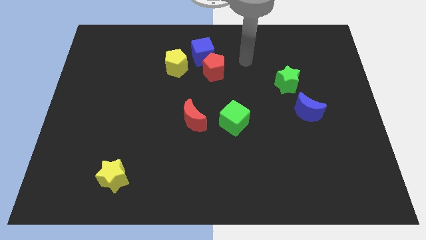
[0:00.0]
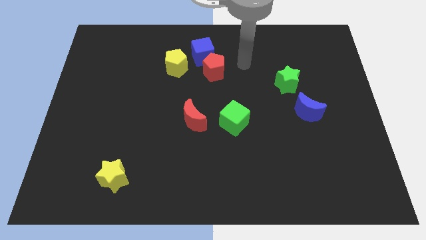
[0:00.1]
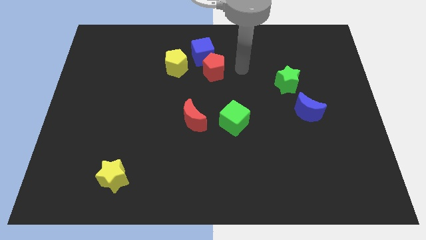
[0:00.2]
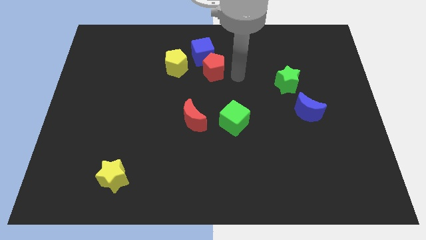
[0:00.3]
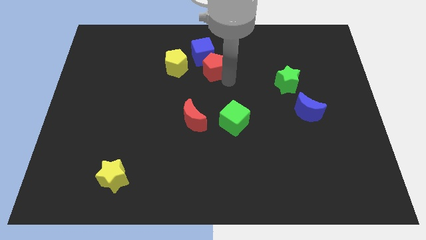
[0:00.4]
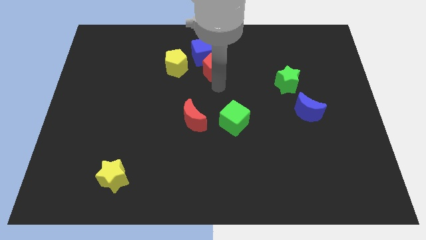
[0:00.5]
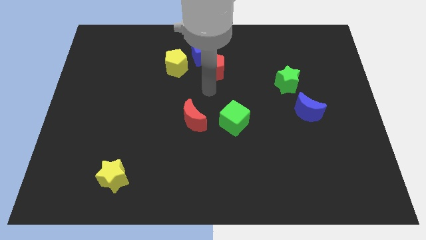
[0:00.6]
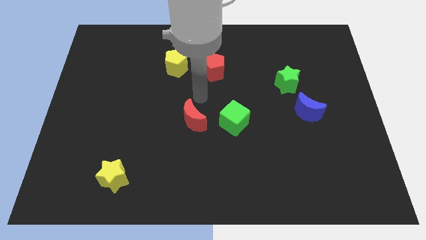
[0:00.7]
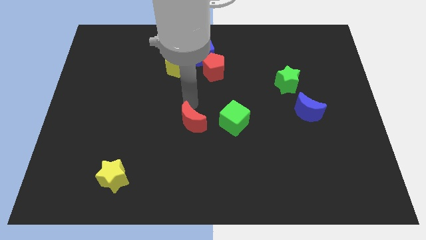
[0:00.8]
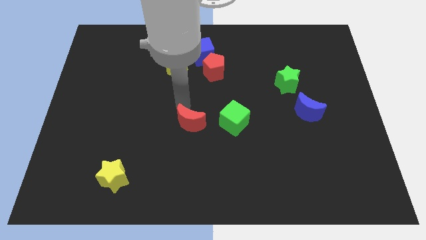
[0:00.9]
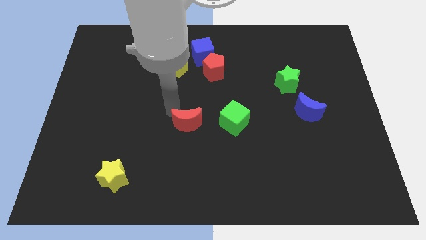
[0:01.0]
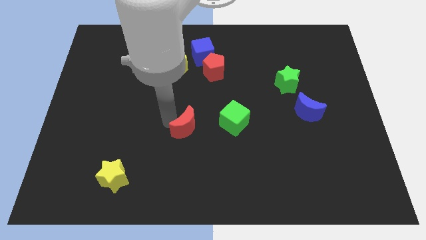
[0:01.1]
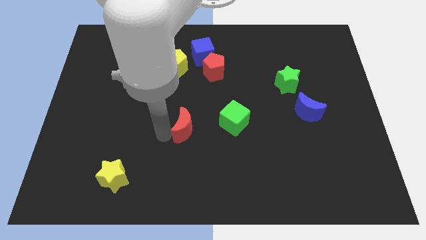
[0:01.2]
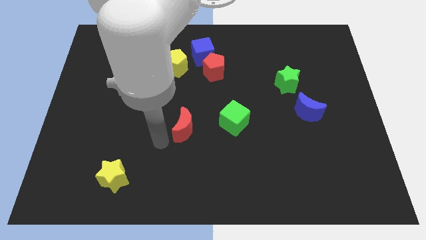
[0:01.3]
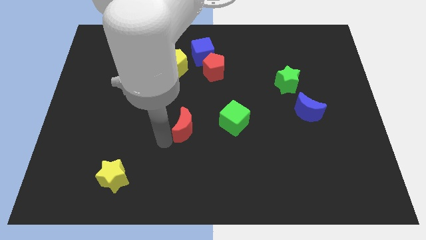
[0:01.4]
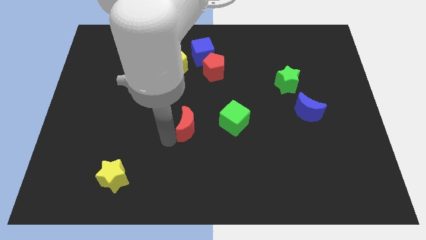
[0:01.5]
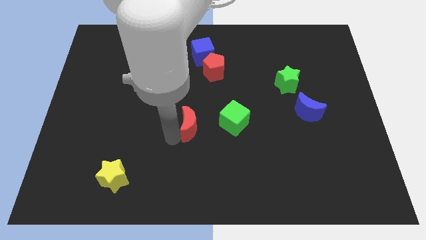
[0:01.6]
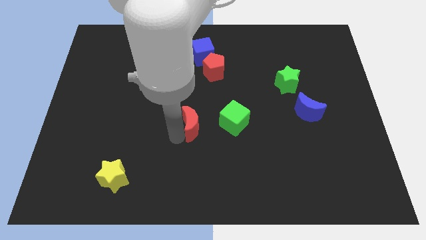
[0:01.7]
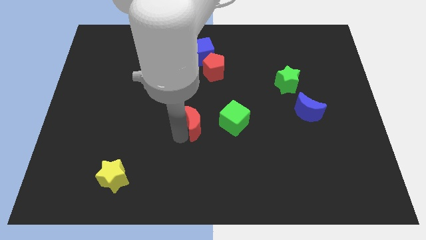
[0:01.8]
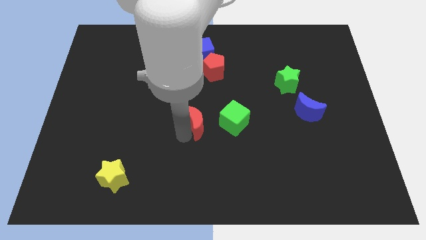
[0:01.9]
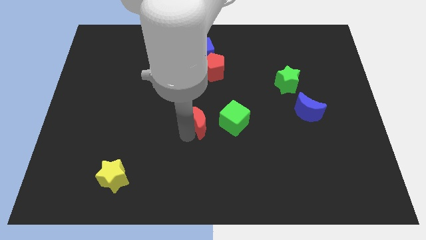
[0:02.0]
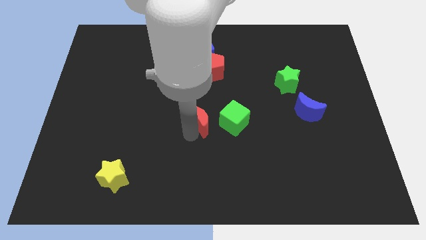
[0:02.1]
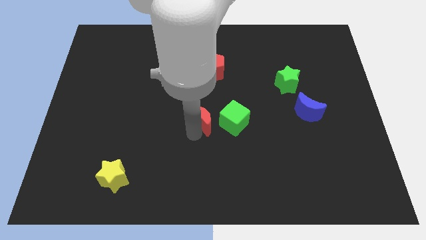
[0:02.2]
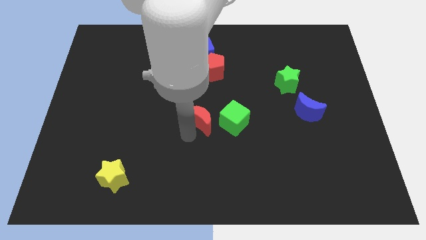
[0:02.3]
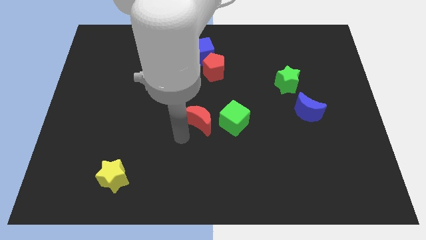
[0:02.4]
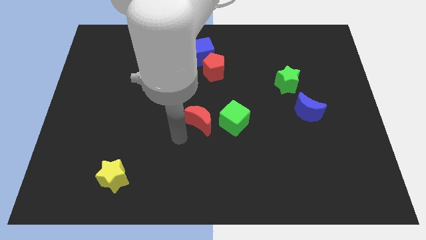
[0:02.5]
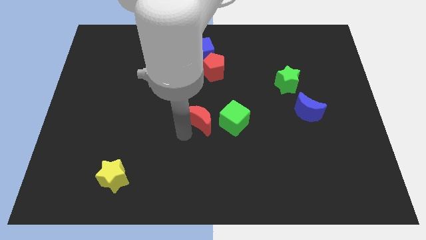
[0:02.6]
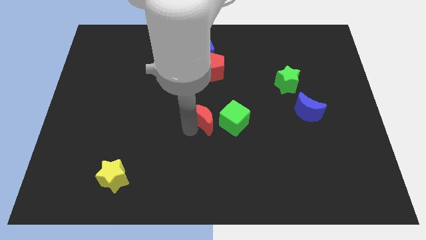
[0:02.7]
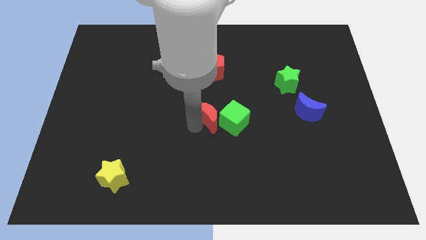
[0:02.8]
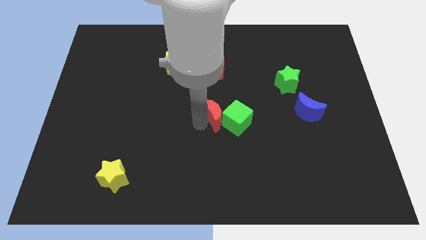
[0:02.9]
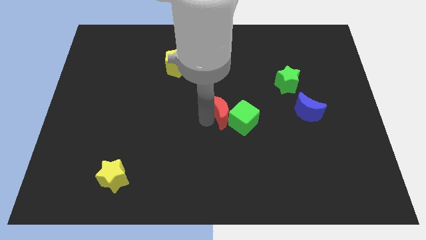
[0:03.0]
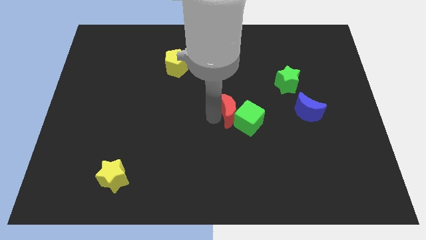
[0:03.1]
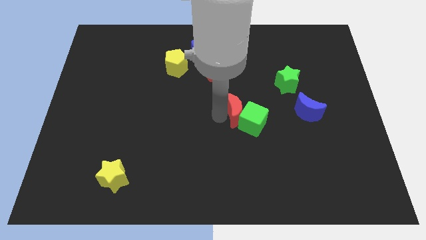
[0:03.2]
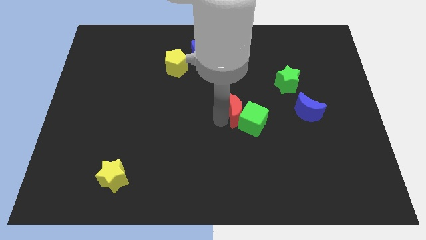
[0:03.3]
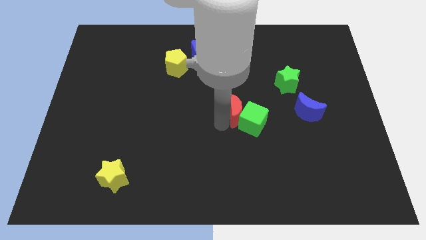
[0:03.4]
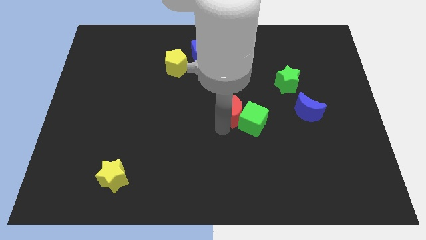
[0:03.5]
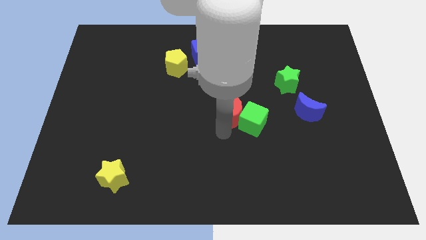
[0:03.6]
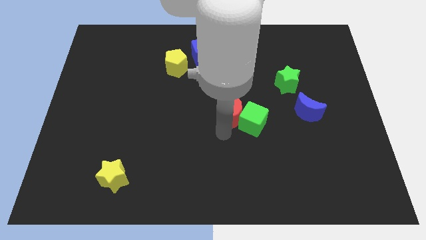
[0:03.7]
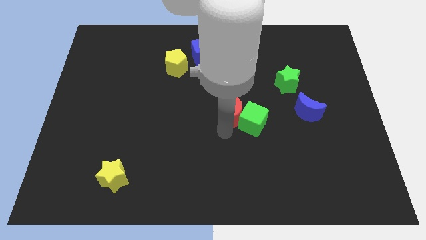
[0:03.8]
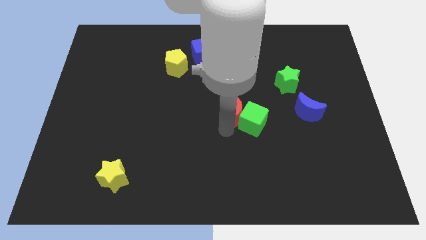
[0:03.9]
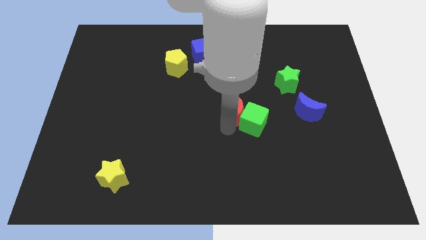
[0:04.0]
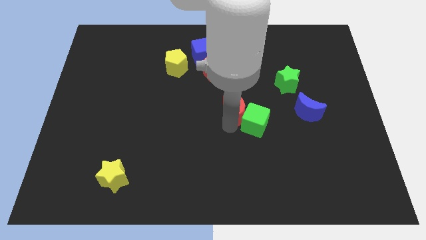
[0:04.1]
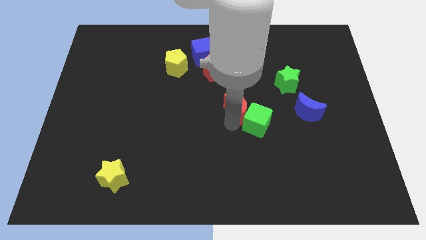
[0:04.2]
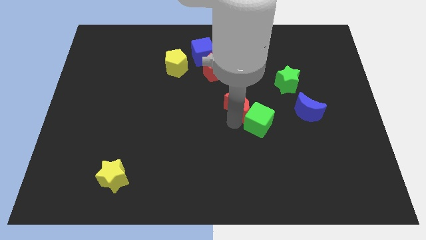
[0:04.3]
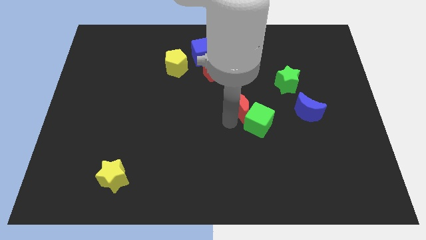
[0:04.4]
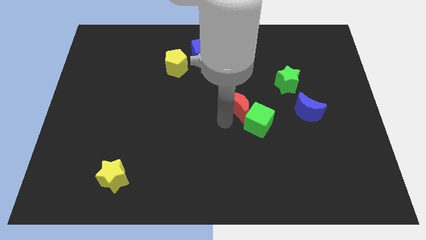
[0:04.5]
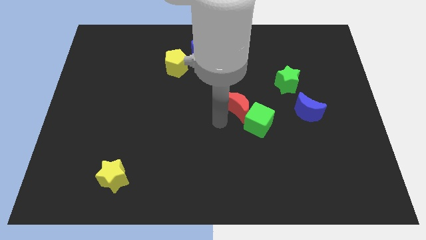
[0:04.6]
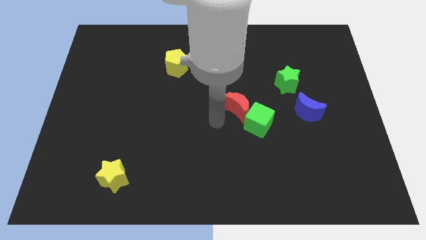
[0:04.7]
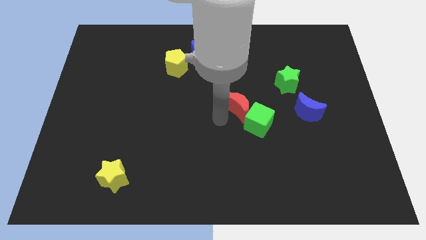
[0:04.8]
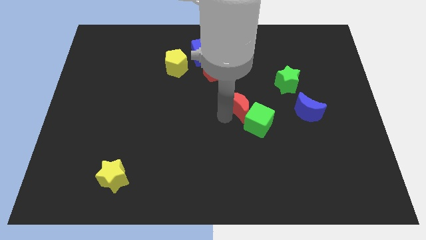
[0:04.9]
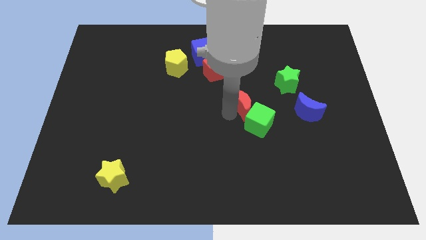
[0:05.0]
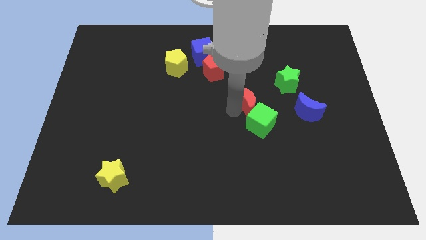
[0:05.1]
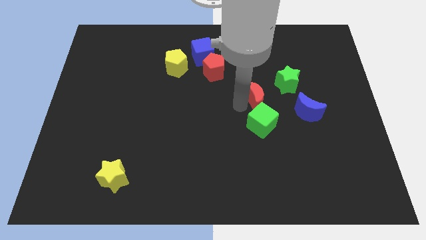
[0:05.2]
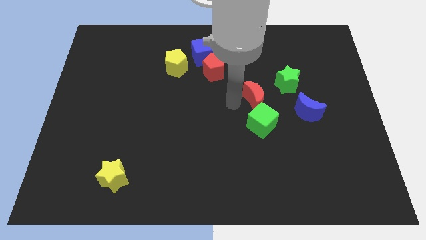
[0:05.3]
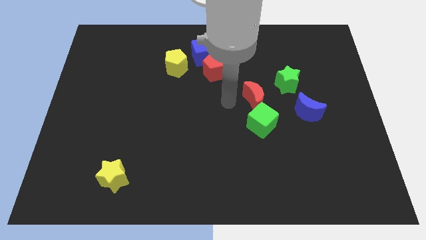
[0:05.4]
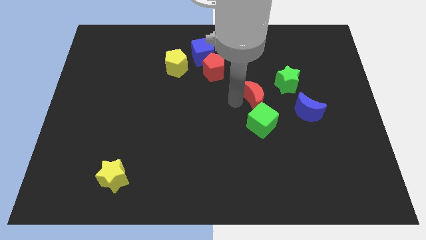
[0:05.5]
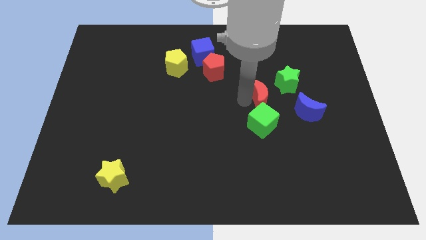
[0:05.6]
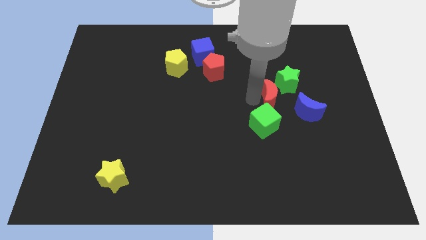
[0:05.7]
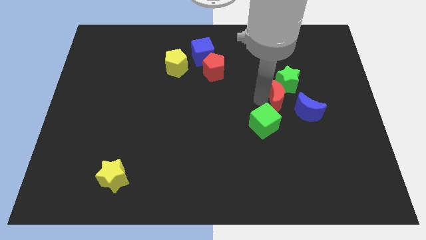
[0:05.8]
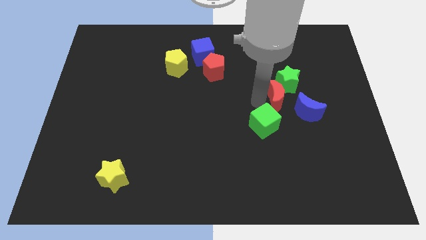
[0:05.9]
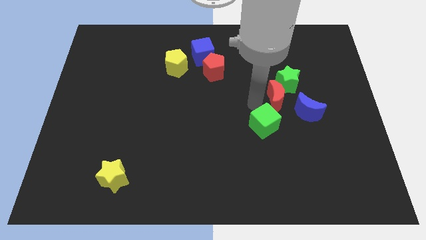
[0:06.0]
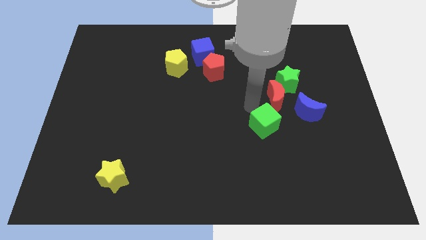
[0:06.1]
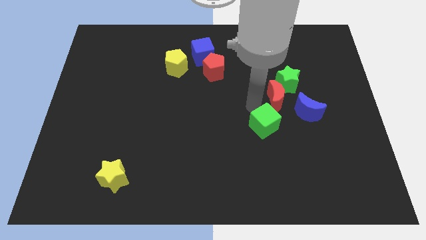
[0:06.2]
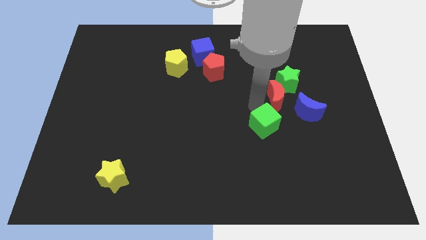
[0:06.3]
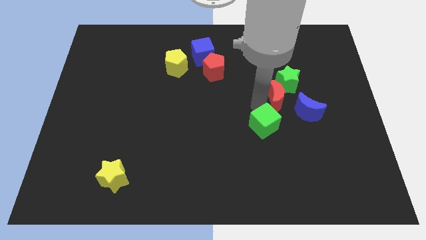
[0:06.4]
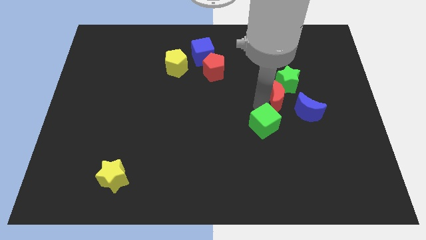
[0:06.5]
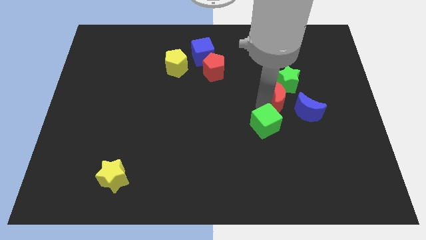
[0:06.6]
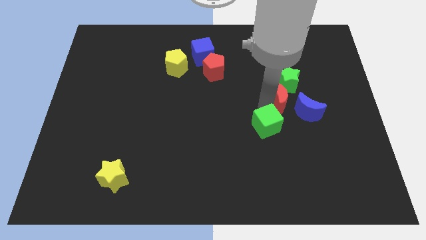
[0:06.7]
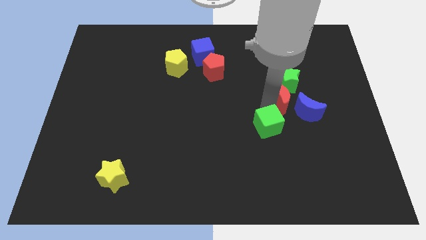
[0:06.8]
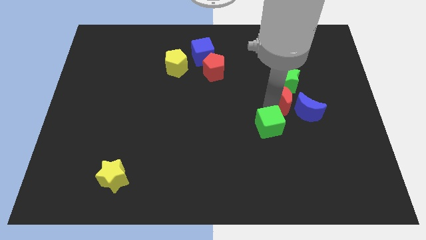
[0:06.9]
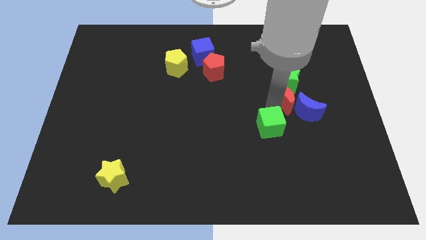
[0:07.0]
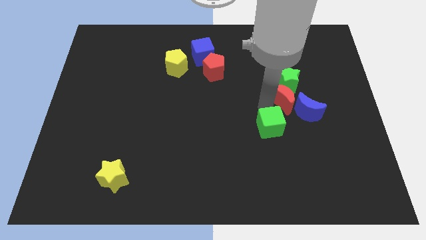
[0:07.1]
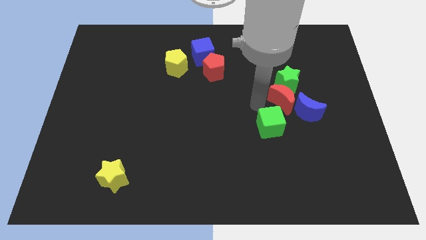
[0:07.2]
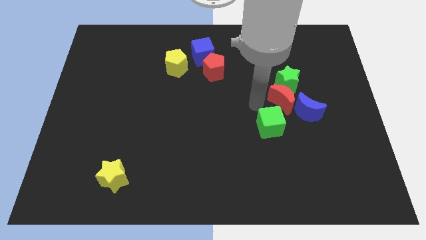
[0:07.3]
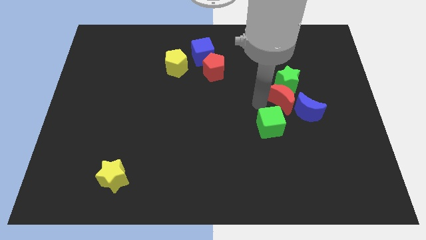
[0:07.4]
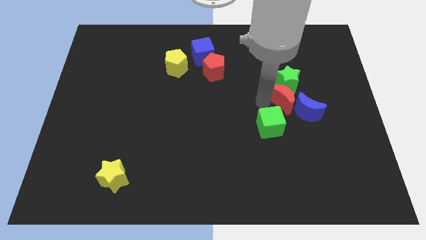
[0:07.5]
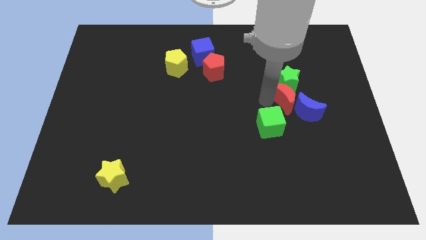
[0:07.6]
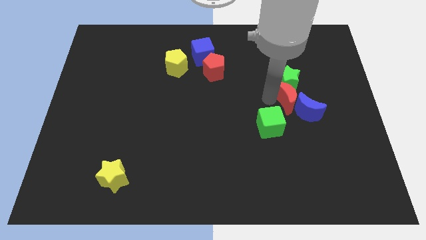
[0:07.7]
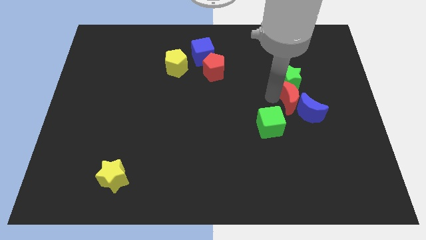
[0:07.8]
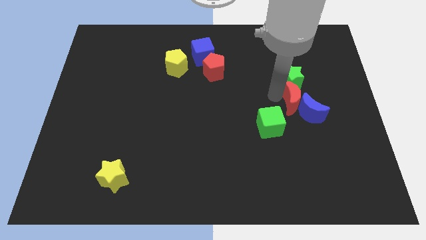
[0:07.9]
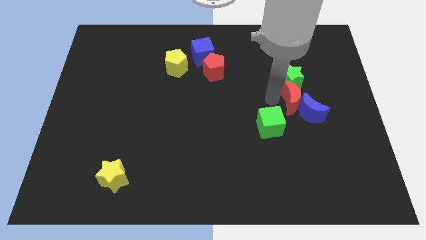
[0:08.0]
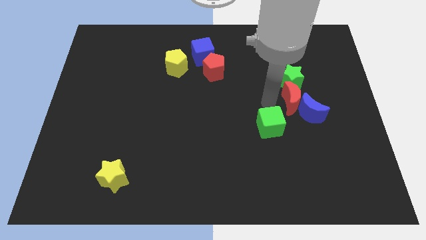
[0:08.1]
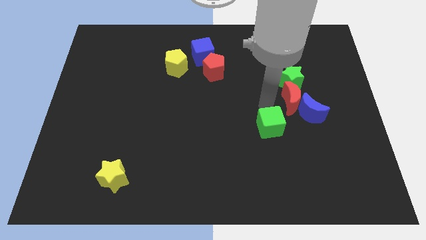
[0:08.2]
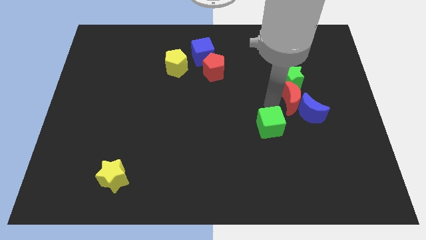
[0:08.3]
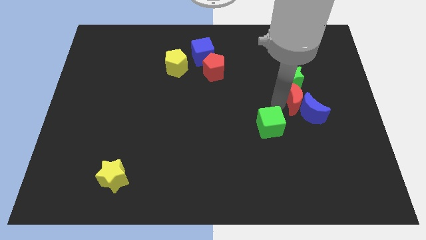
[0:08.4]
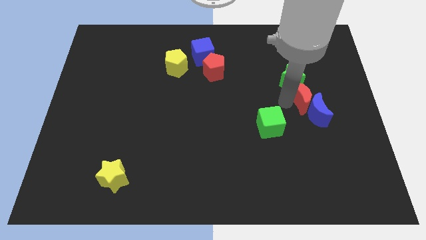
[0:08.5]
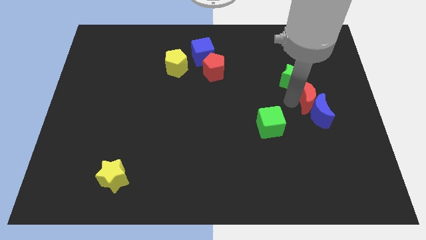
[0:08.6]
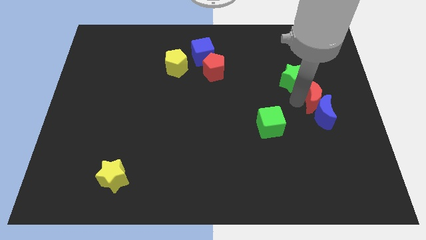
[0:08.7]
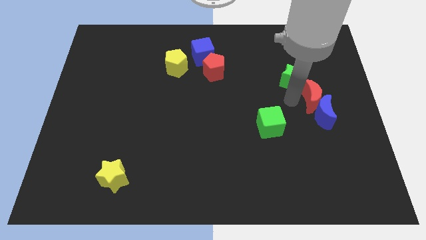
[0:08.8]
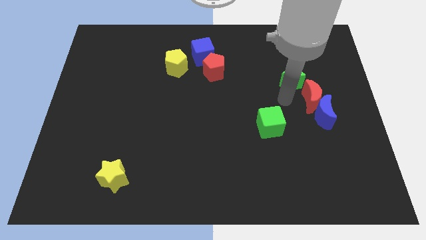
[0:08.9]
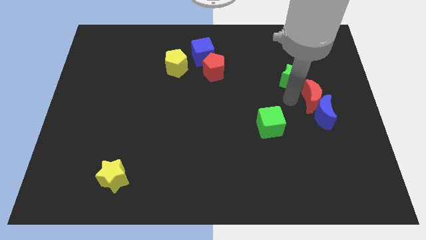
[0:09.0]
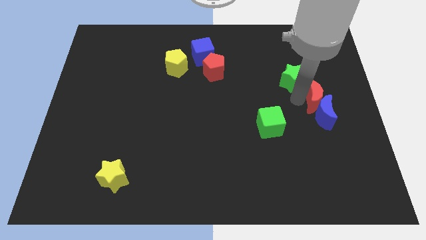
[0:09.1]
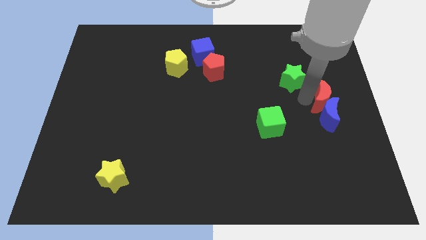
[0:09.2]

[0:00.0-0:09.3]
move the red moon to the center right
